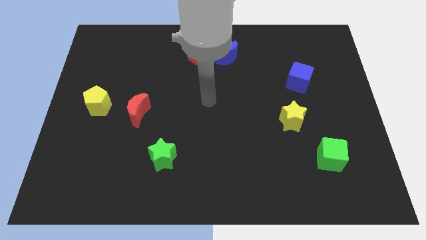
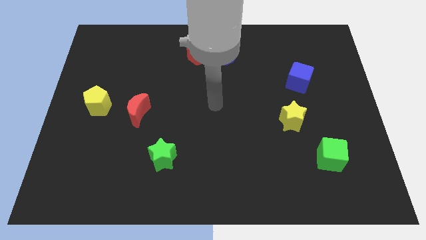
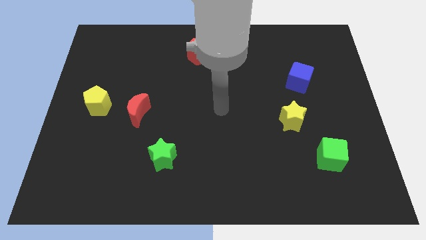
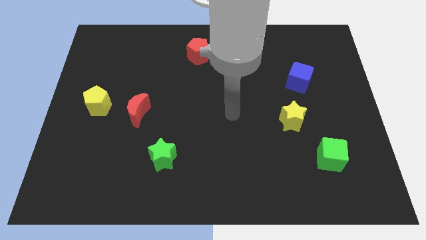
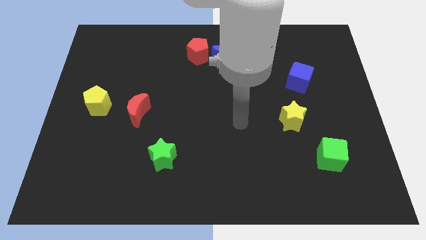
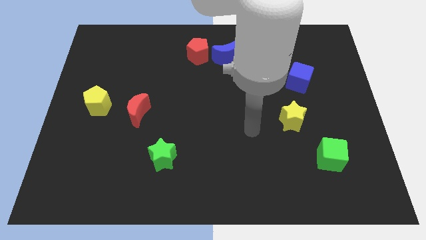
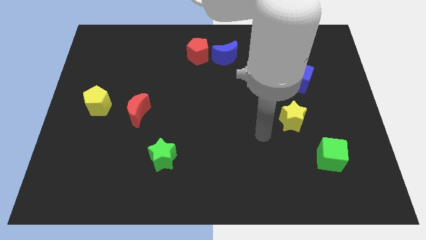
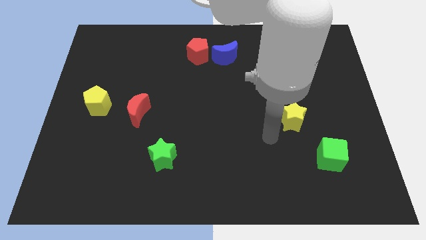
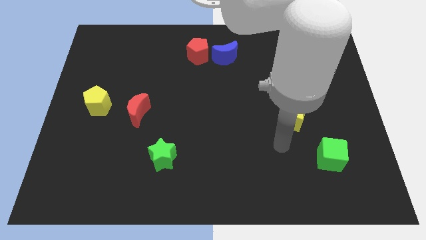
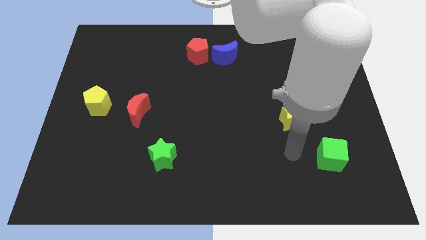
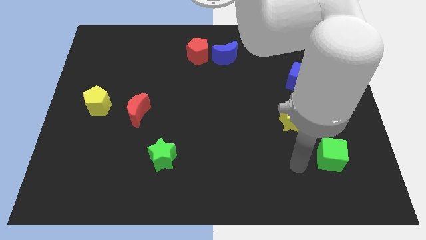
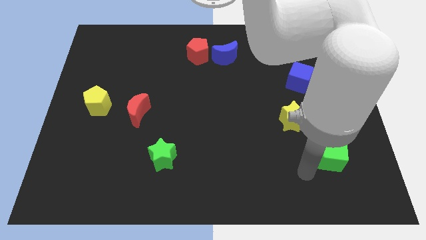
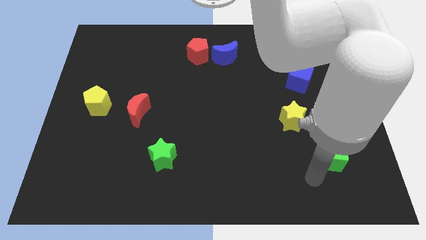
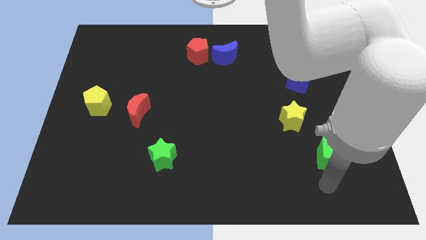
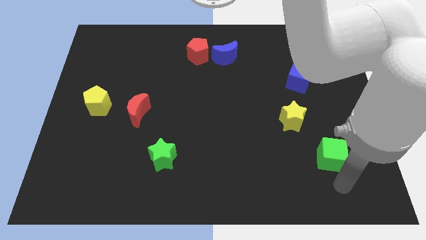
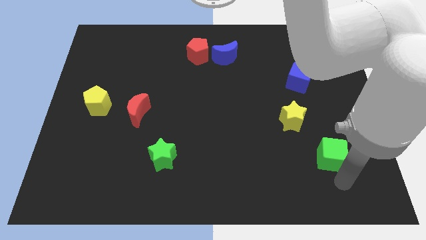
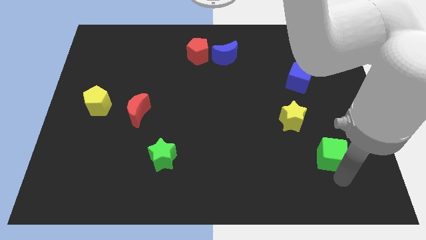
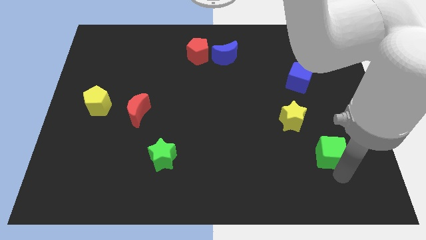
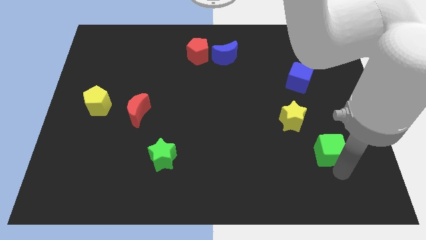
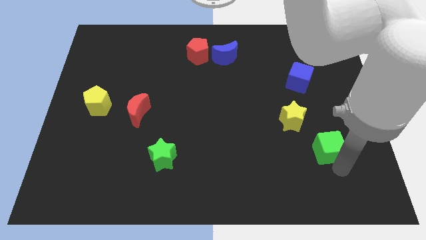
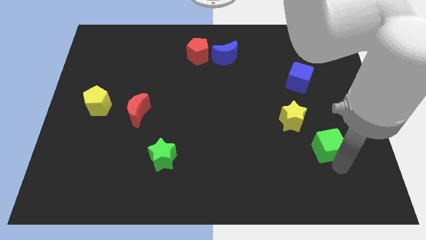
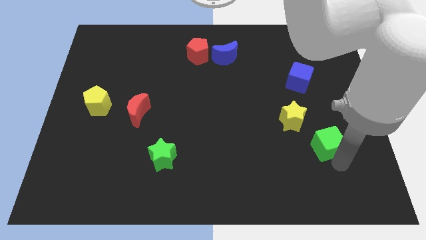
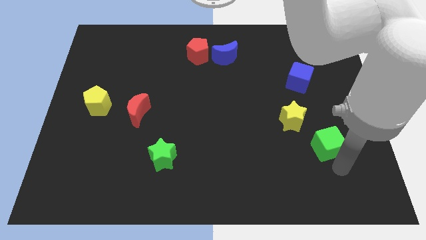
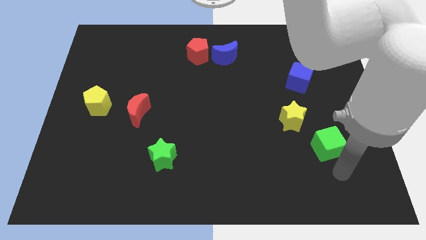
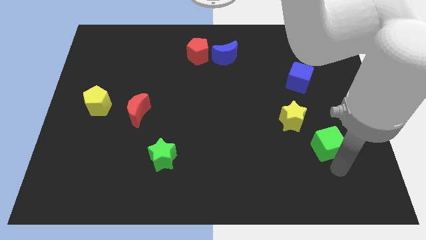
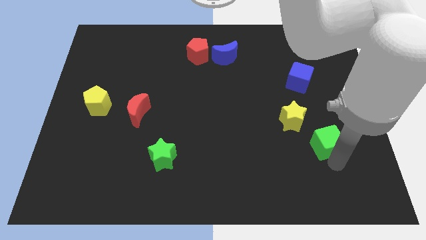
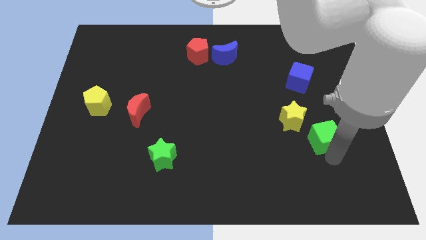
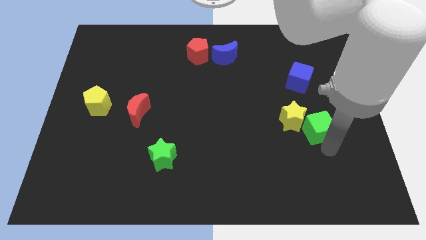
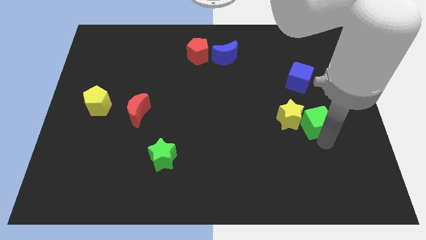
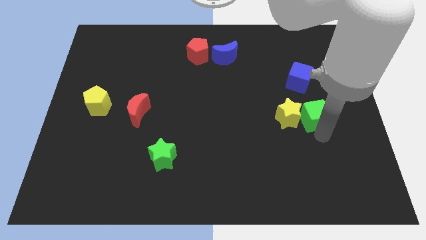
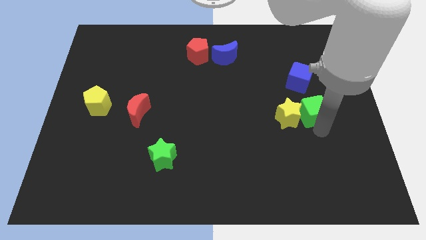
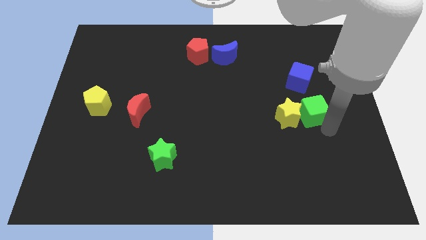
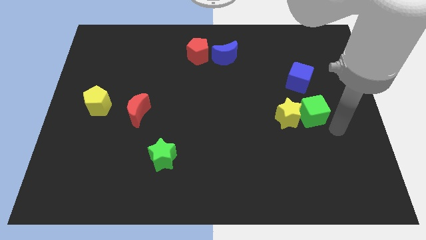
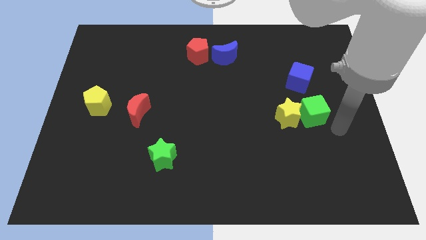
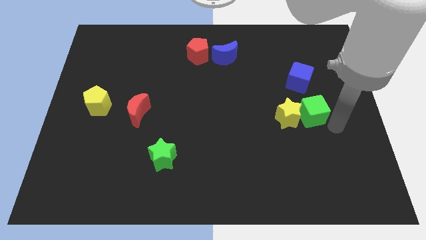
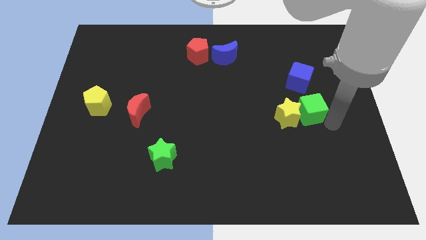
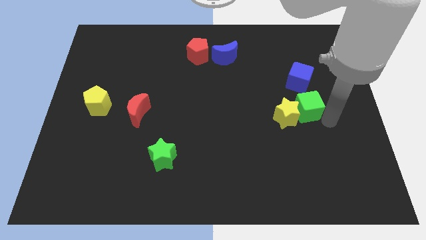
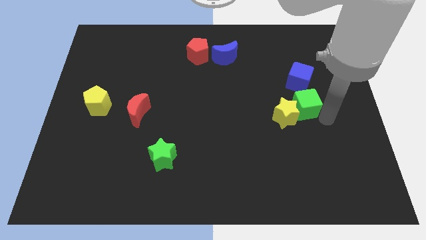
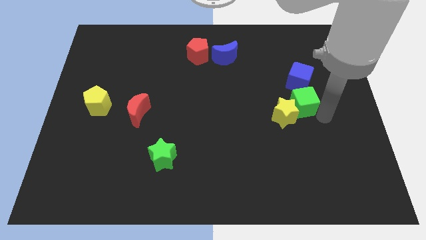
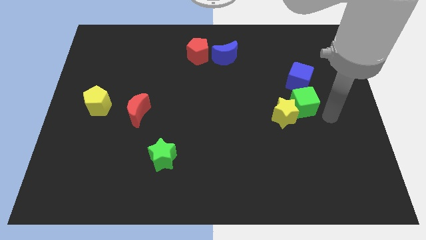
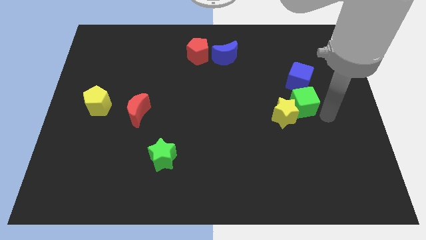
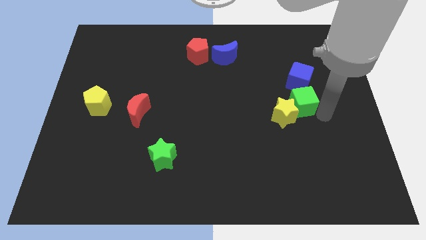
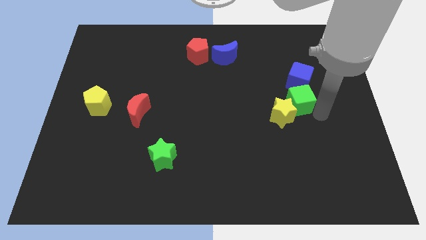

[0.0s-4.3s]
push the green cube to the bottom left of the blue cube

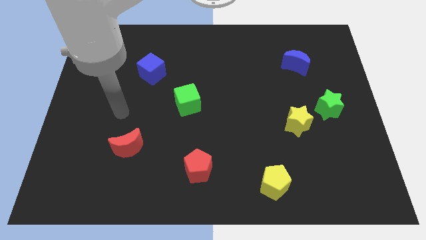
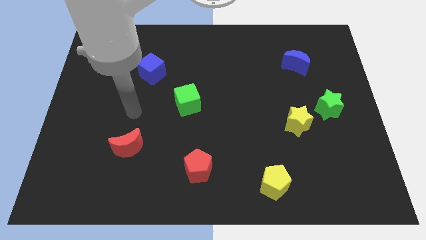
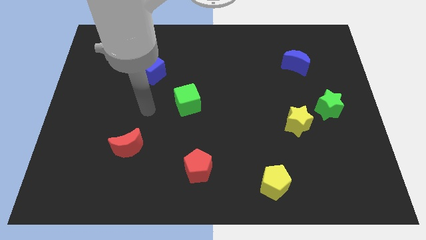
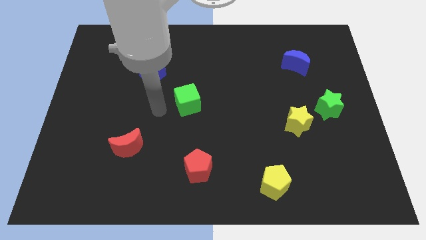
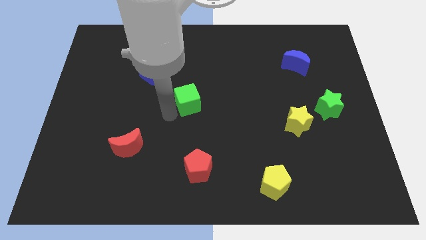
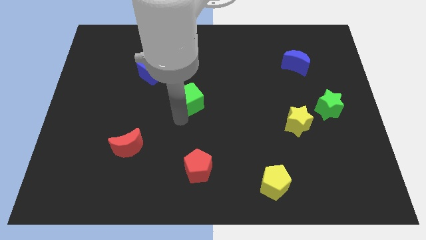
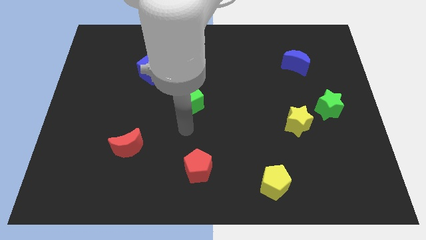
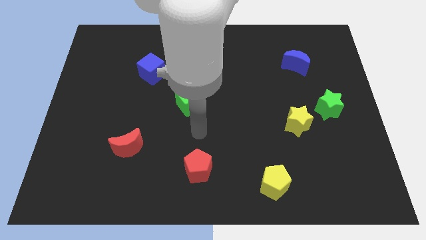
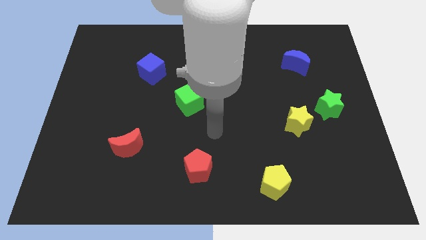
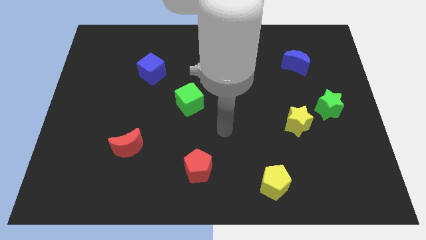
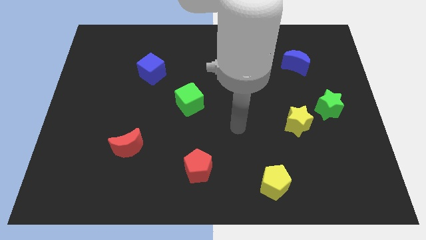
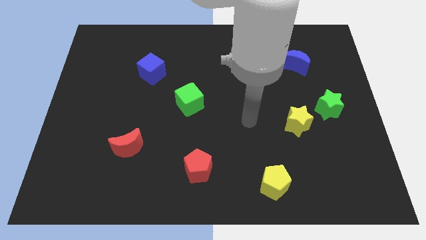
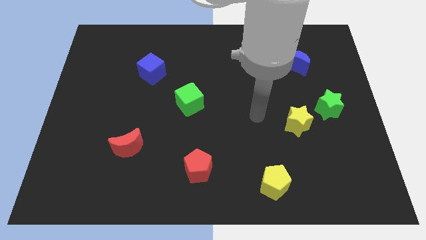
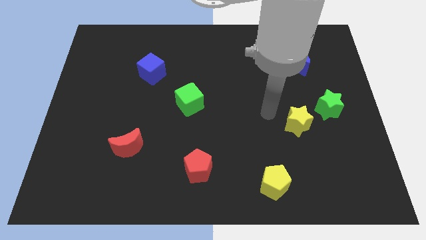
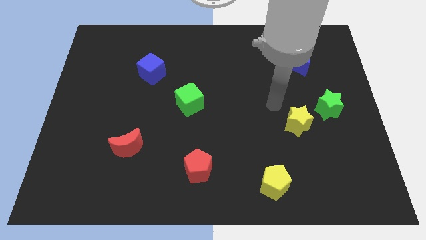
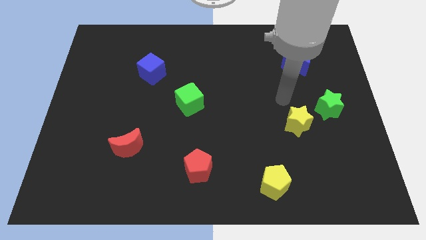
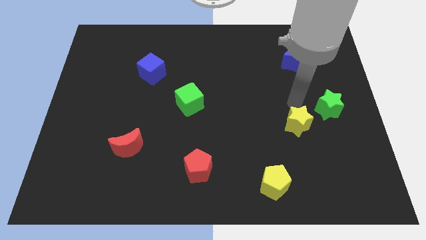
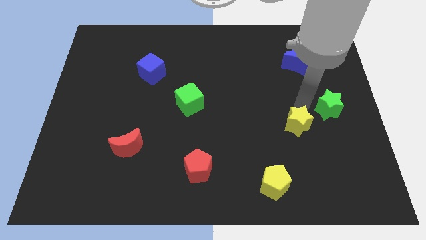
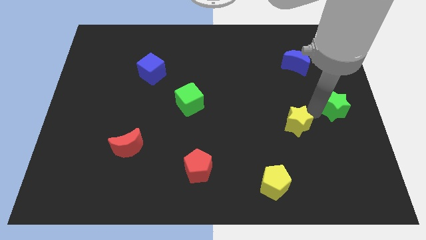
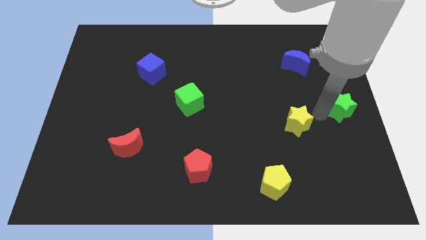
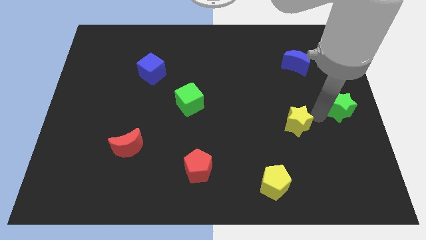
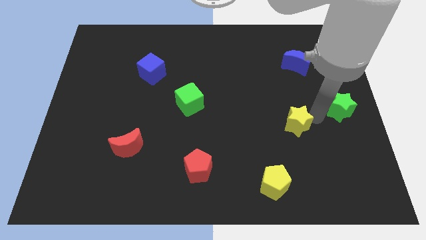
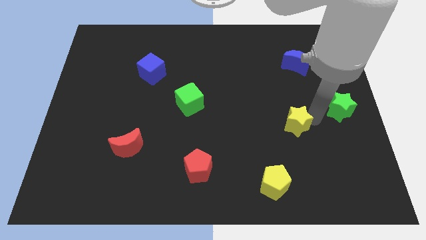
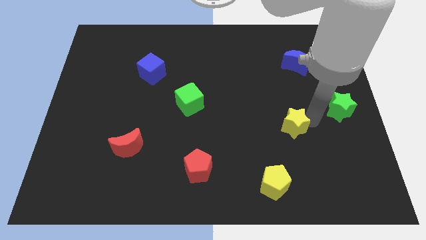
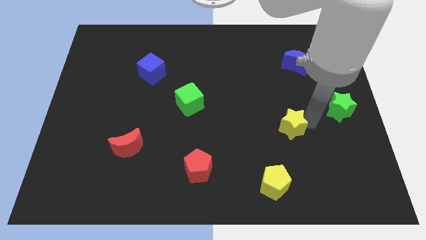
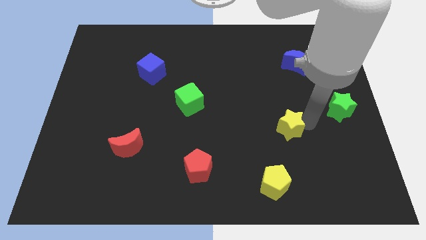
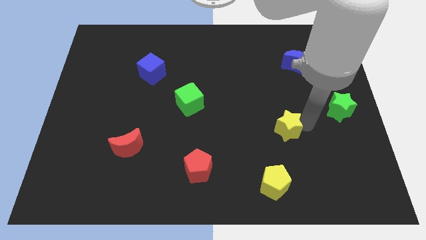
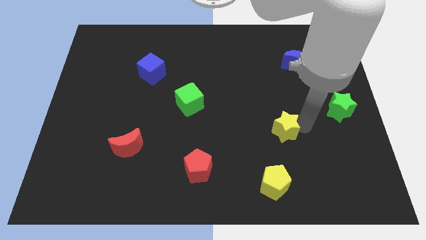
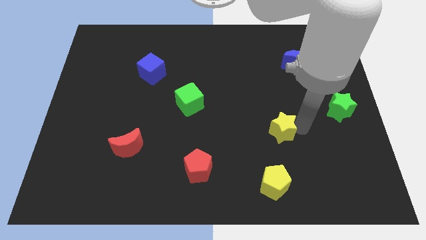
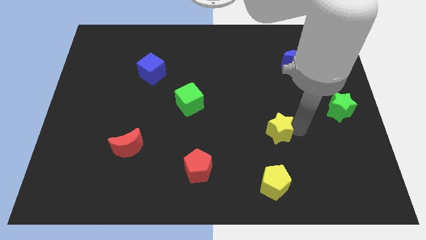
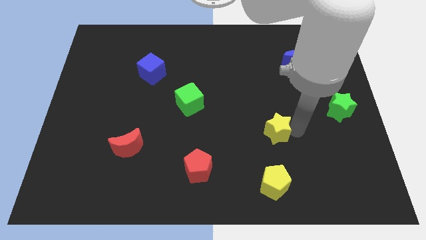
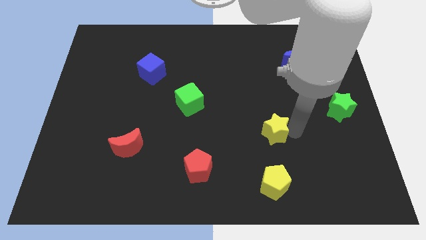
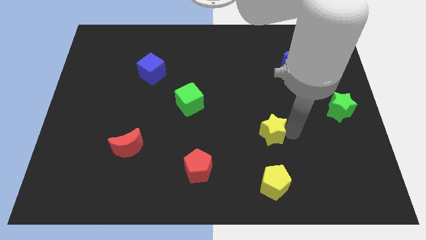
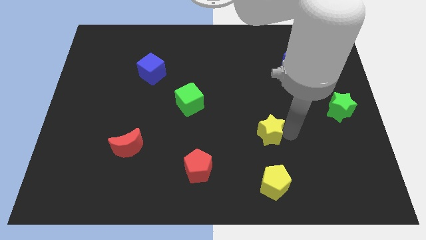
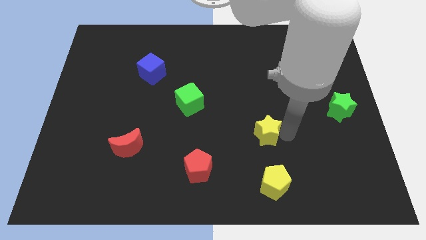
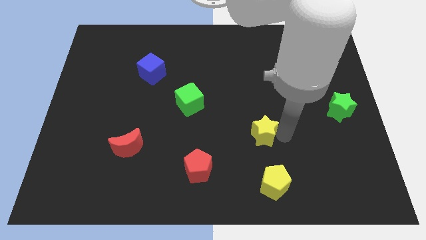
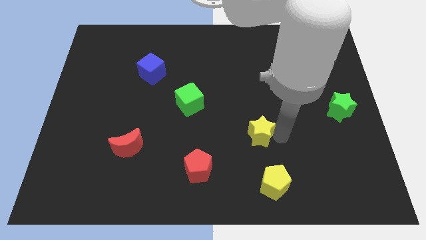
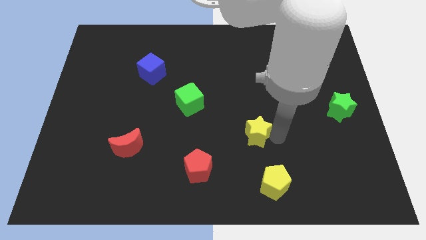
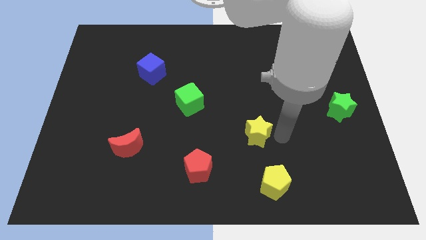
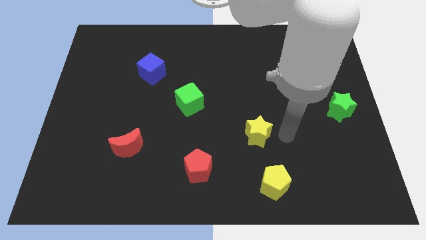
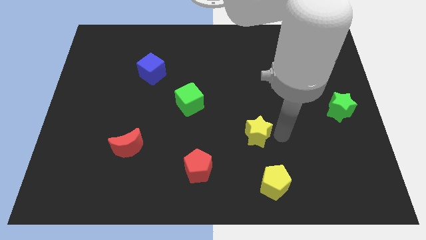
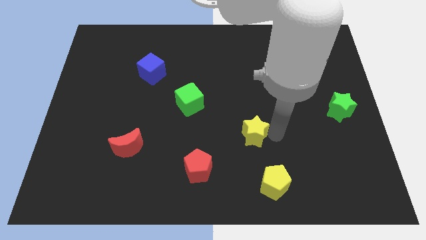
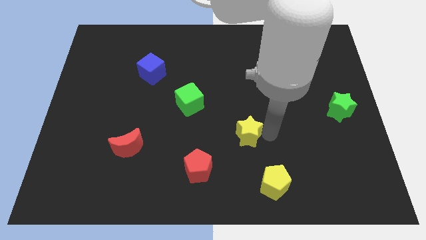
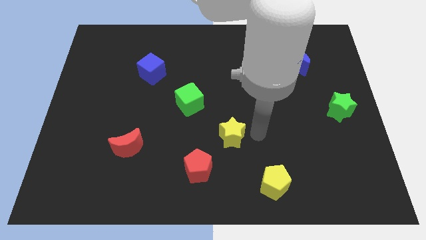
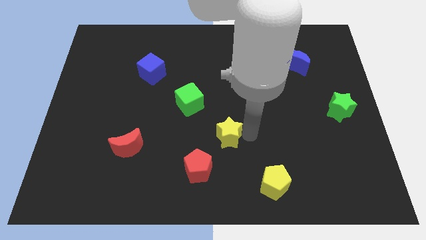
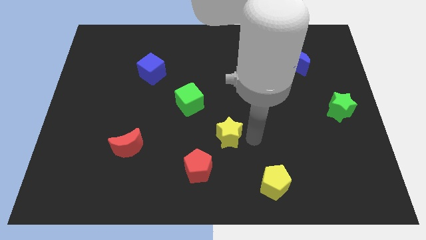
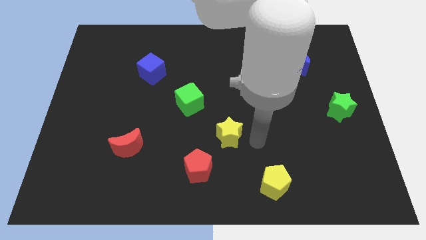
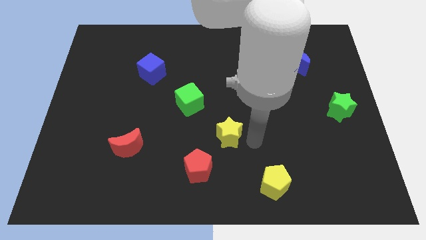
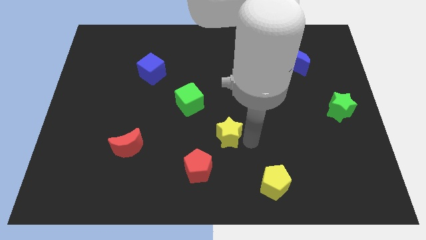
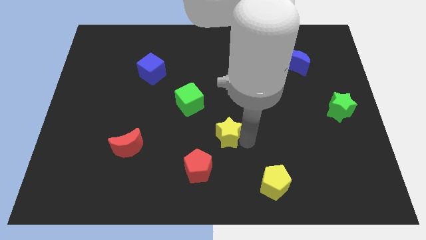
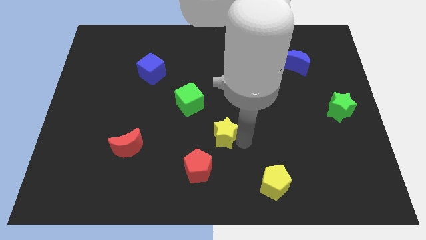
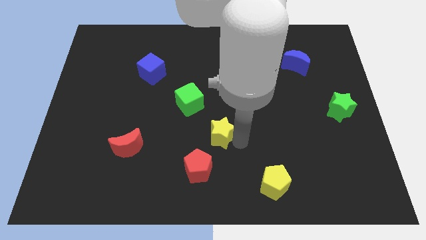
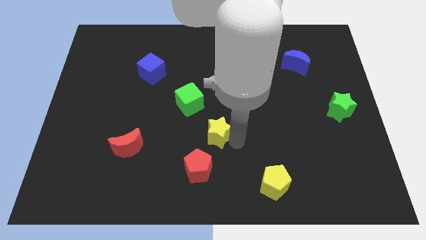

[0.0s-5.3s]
put the yellow star to the top side of the red pentagon
